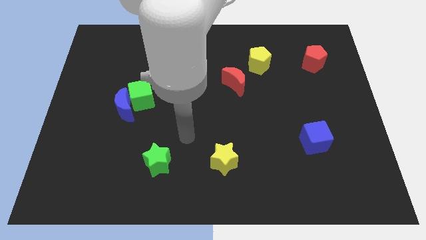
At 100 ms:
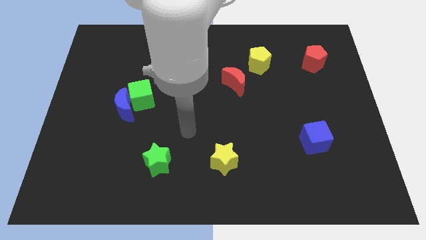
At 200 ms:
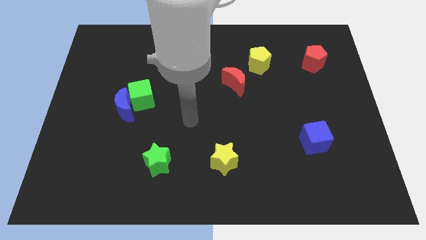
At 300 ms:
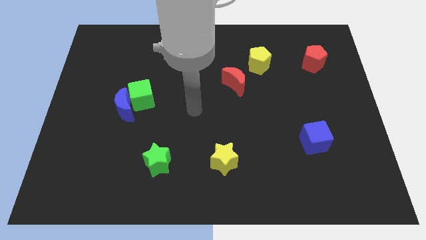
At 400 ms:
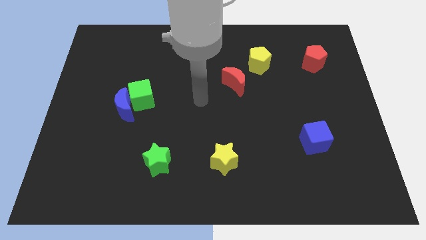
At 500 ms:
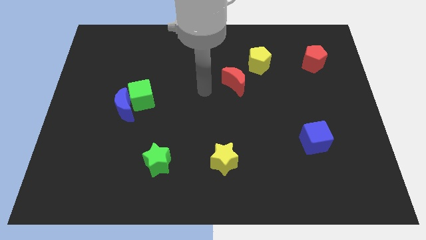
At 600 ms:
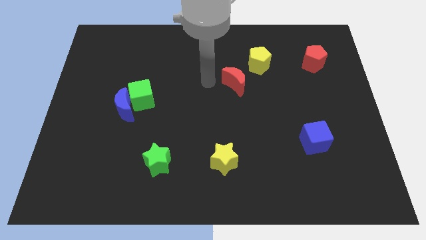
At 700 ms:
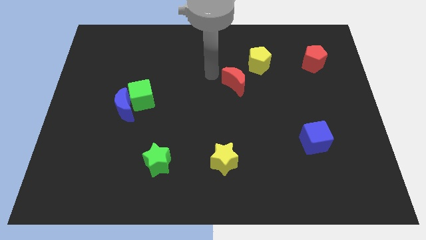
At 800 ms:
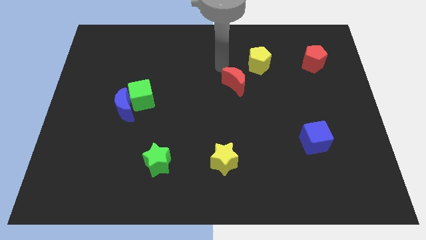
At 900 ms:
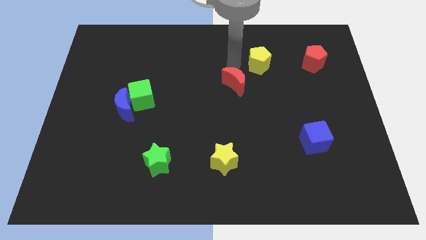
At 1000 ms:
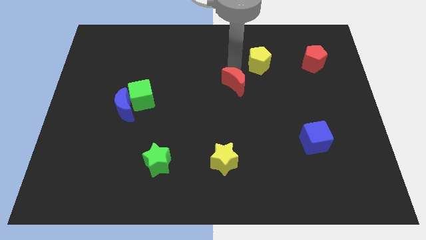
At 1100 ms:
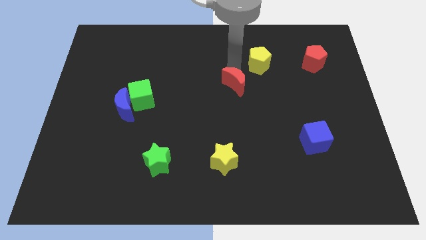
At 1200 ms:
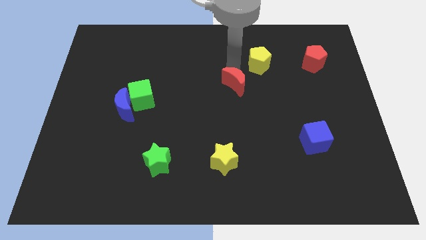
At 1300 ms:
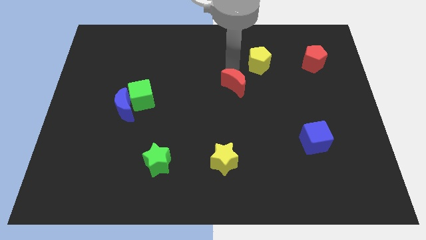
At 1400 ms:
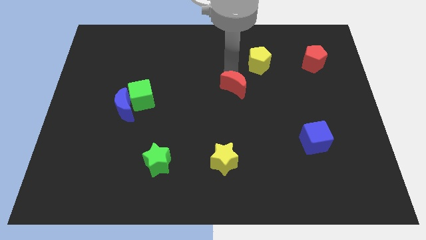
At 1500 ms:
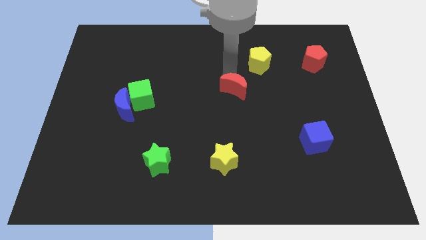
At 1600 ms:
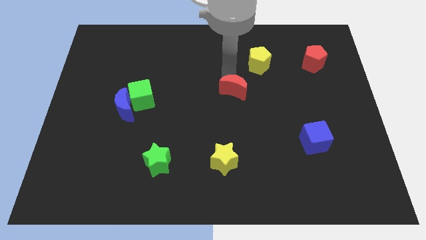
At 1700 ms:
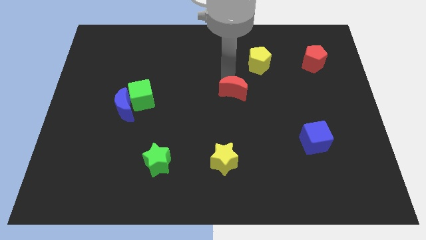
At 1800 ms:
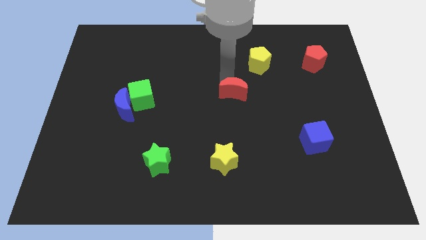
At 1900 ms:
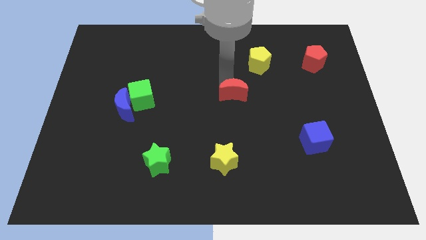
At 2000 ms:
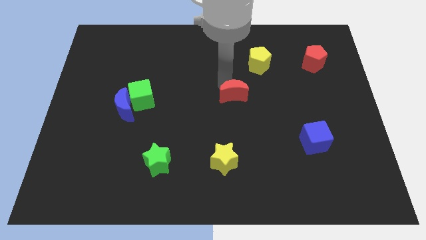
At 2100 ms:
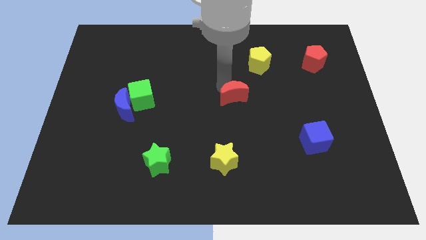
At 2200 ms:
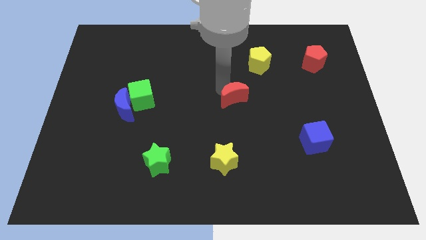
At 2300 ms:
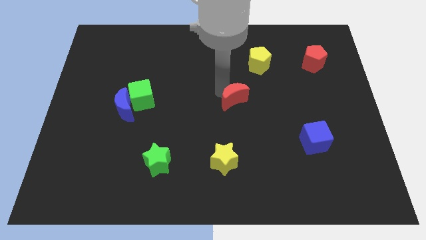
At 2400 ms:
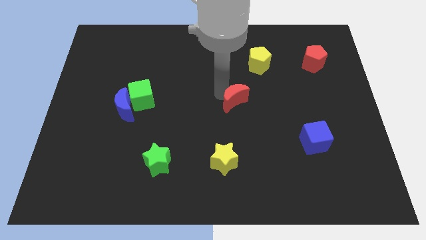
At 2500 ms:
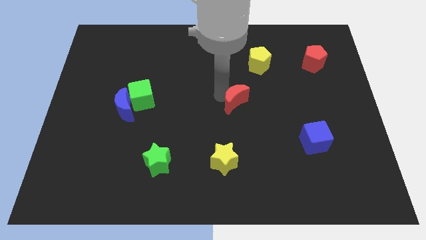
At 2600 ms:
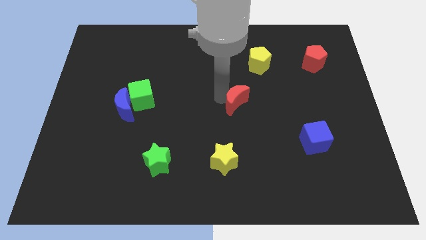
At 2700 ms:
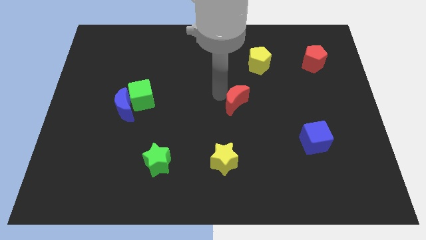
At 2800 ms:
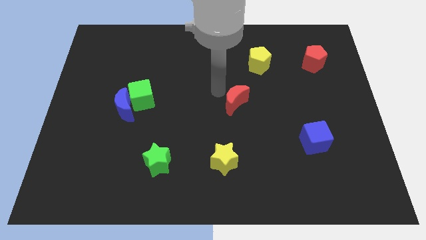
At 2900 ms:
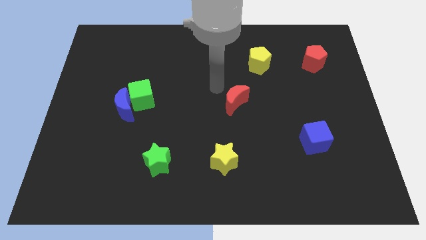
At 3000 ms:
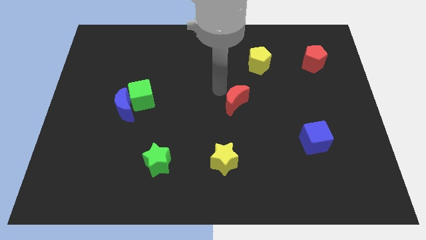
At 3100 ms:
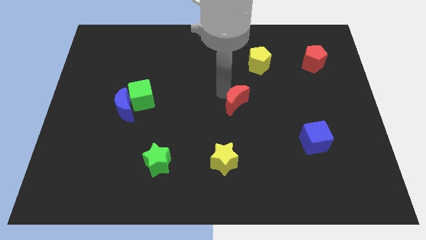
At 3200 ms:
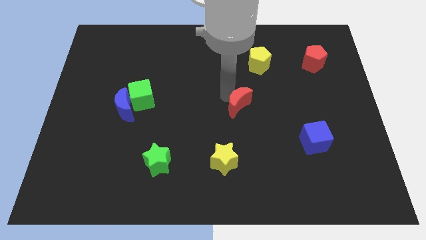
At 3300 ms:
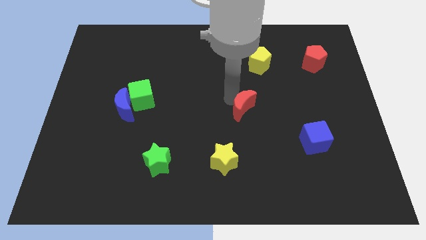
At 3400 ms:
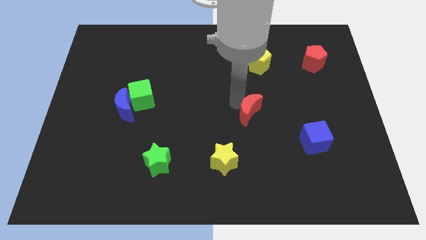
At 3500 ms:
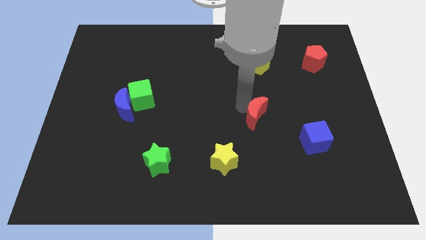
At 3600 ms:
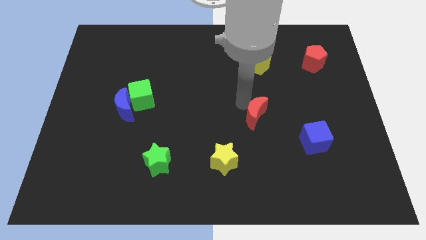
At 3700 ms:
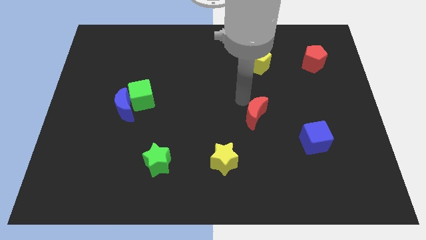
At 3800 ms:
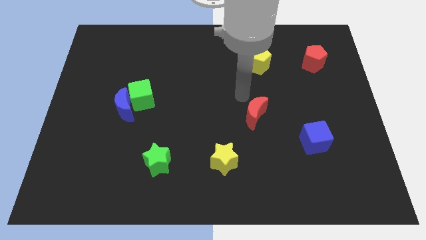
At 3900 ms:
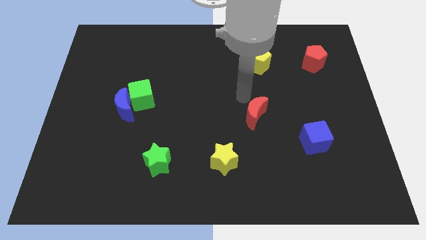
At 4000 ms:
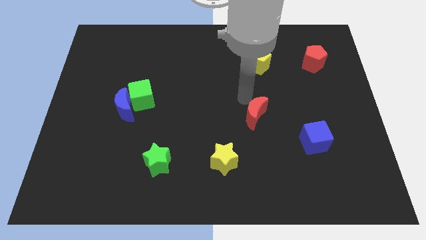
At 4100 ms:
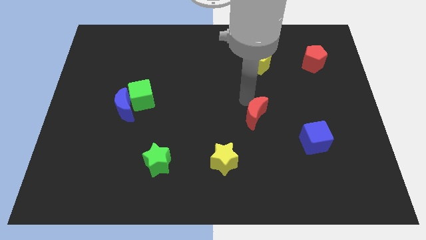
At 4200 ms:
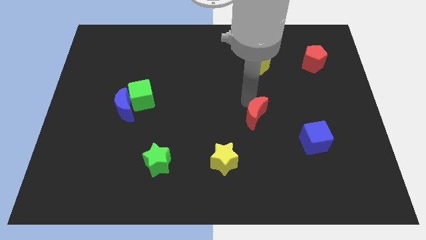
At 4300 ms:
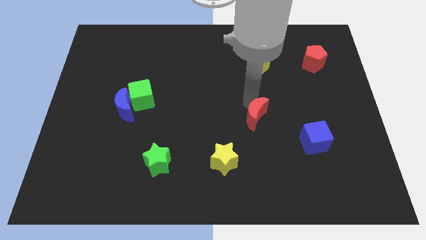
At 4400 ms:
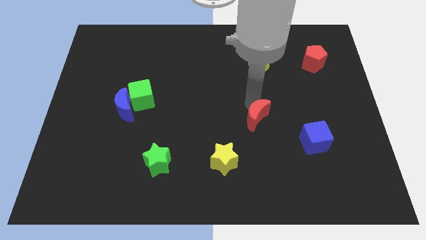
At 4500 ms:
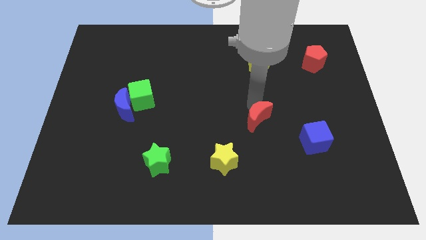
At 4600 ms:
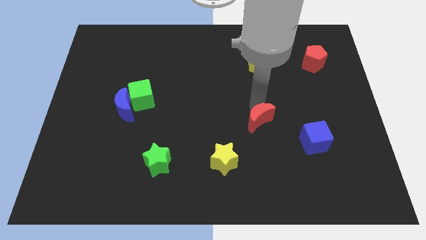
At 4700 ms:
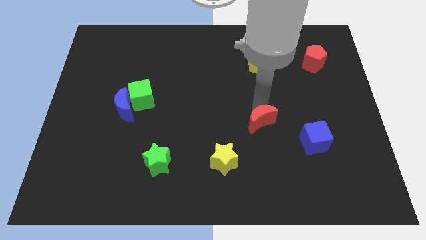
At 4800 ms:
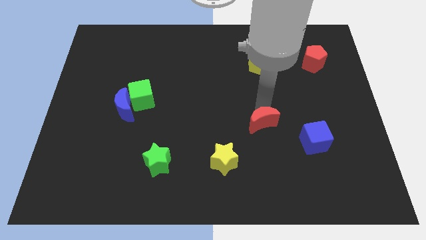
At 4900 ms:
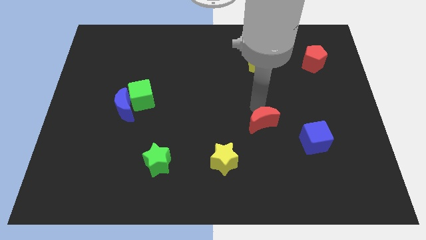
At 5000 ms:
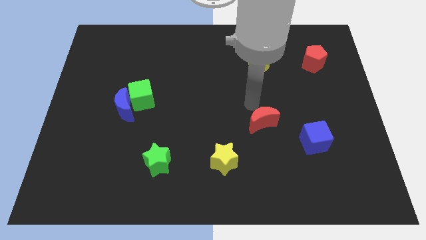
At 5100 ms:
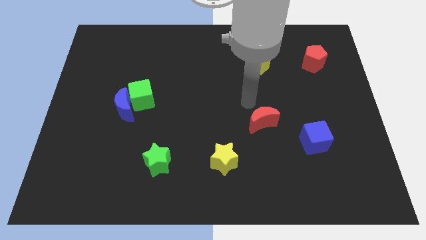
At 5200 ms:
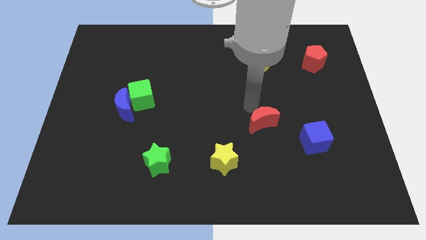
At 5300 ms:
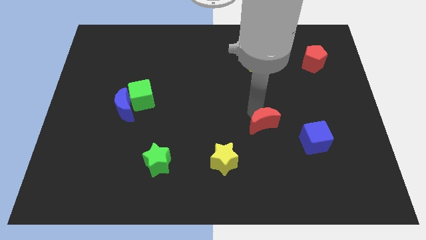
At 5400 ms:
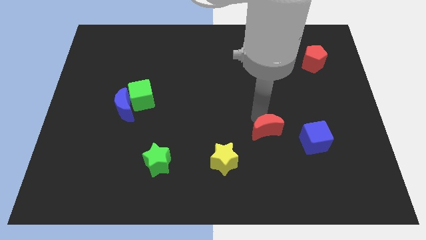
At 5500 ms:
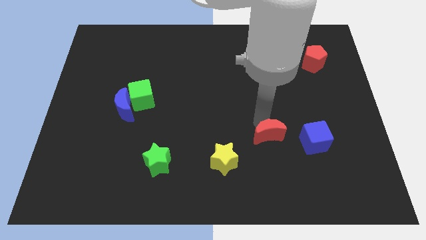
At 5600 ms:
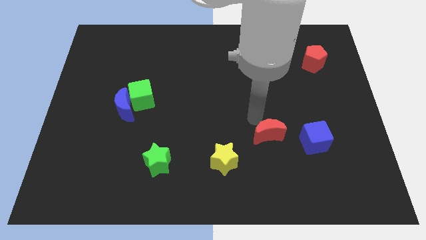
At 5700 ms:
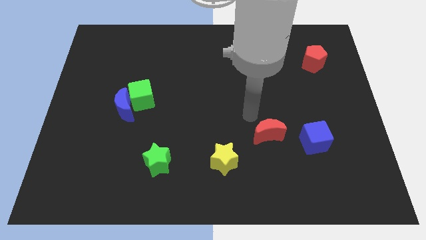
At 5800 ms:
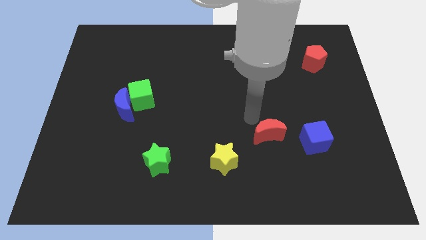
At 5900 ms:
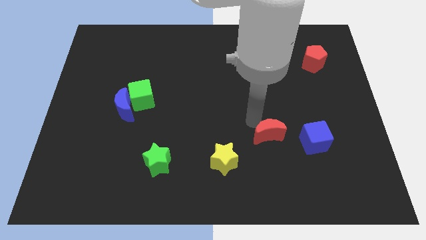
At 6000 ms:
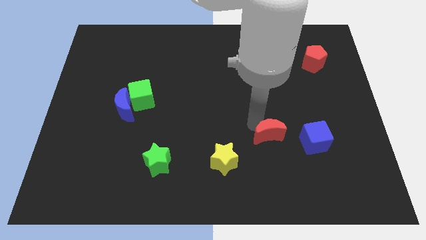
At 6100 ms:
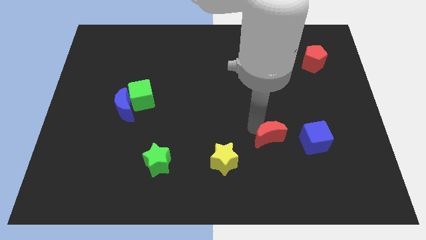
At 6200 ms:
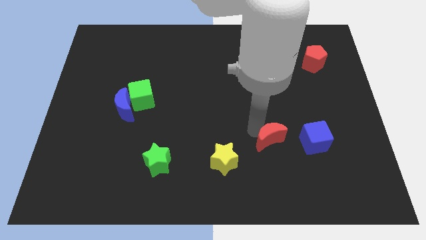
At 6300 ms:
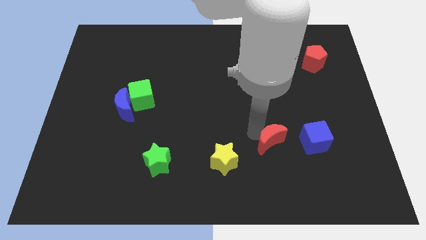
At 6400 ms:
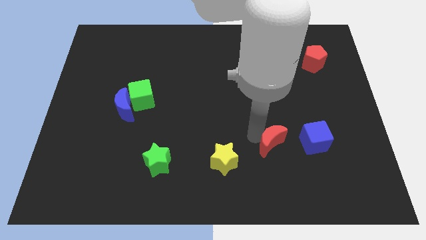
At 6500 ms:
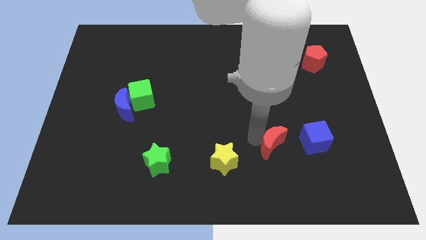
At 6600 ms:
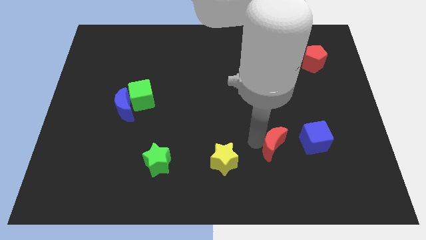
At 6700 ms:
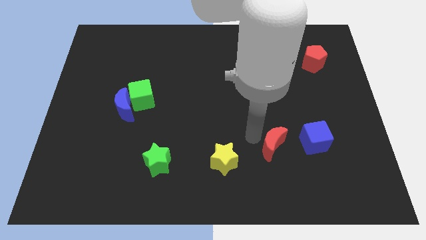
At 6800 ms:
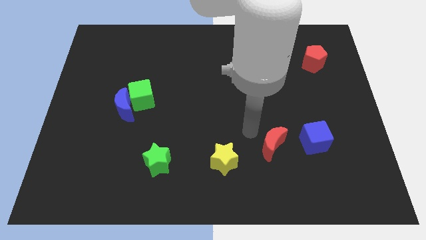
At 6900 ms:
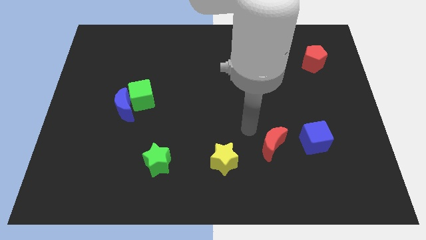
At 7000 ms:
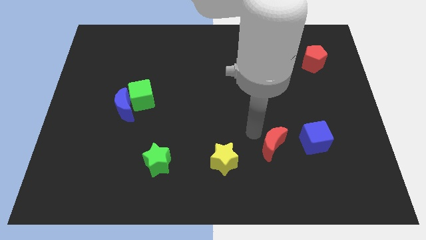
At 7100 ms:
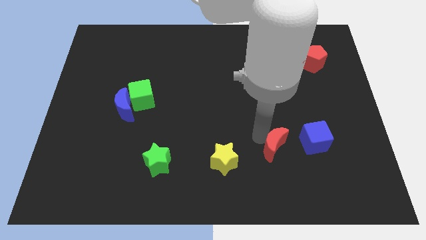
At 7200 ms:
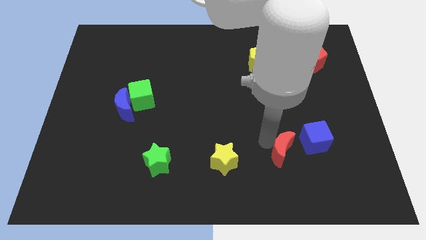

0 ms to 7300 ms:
put the red moon to the bottom left of the blue cube
